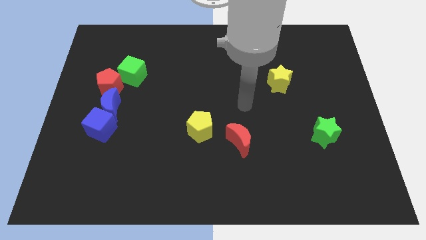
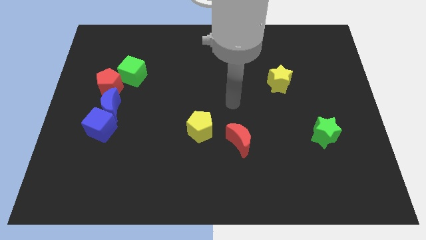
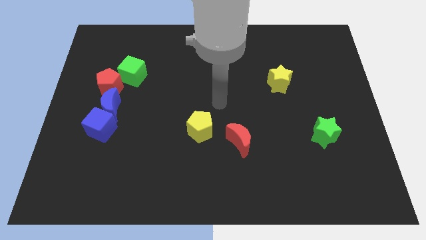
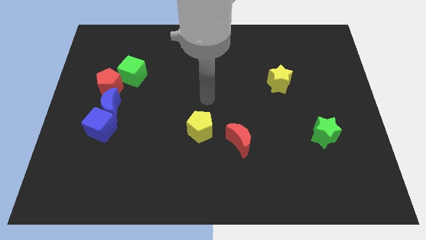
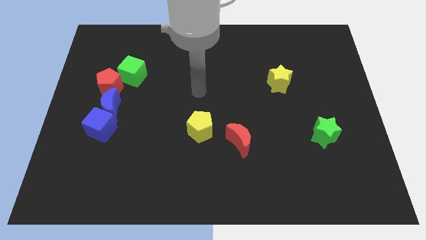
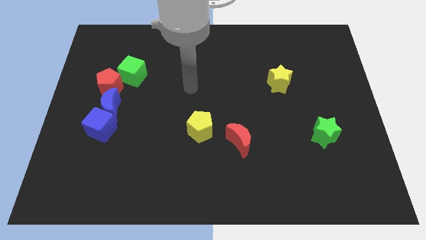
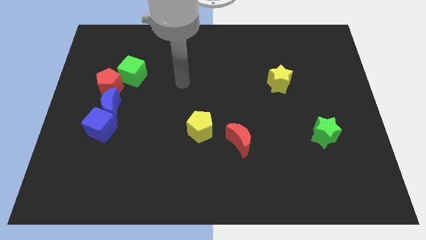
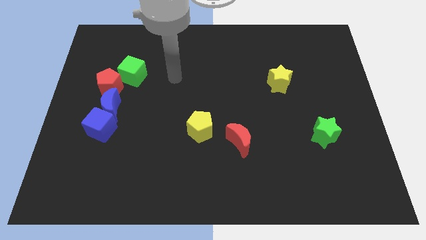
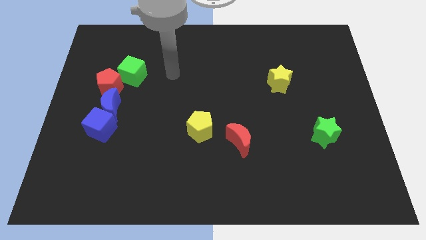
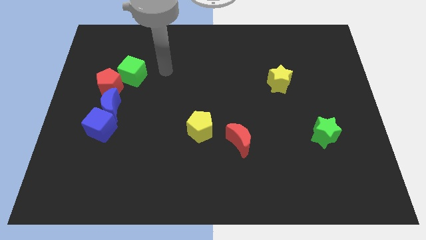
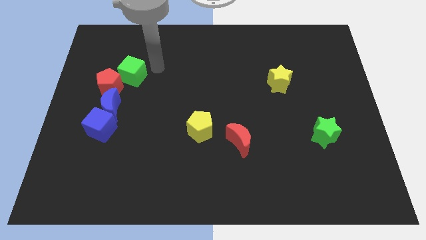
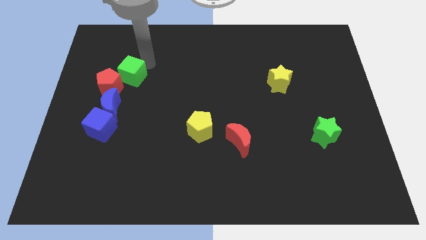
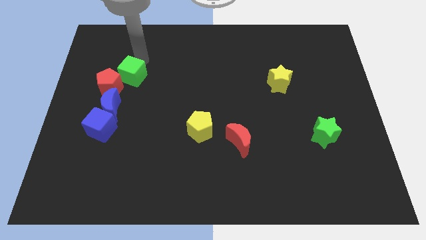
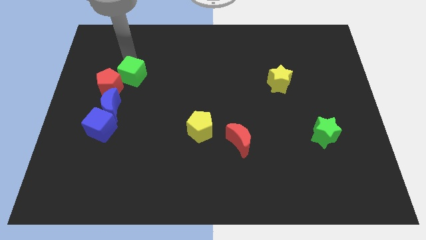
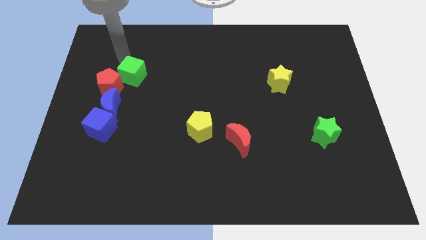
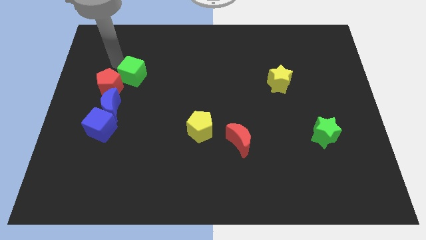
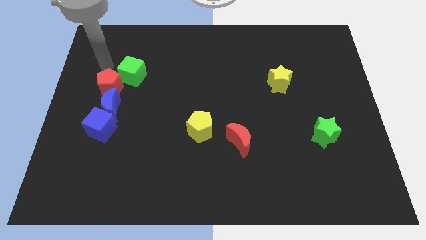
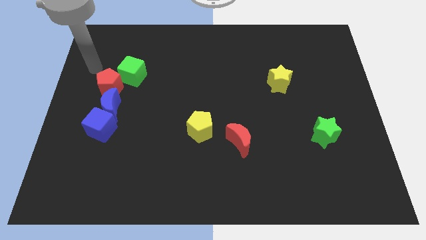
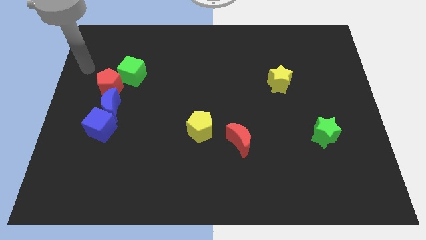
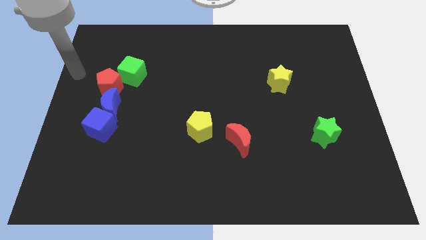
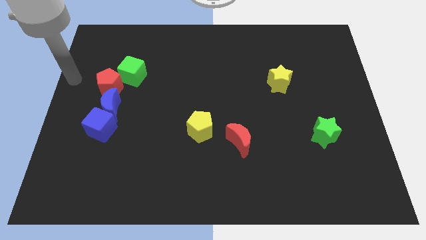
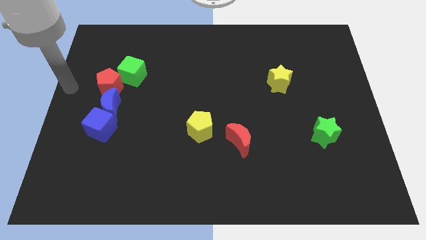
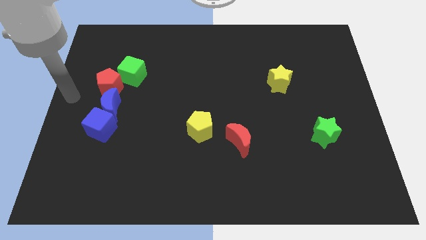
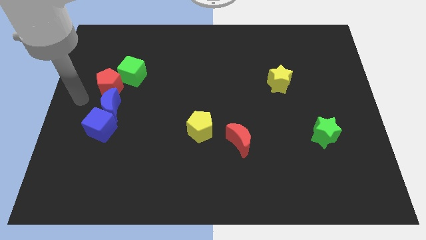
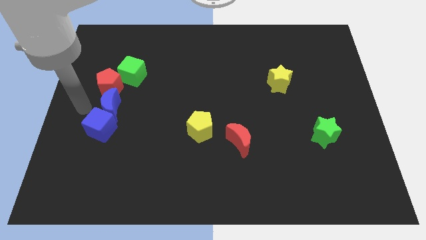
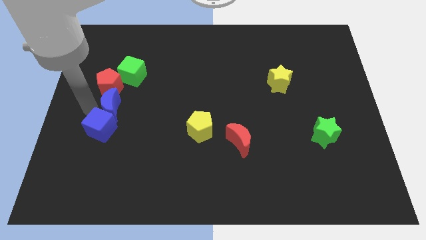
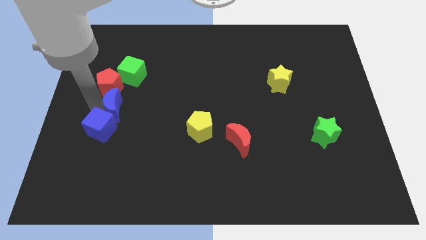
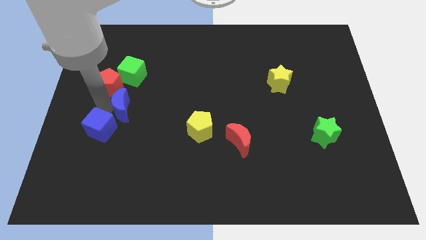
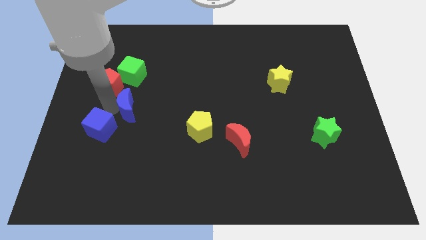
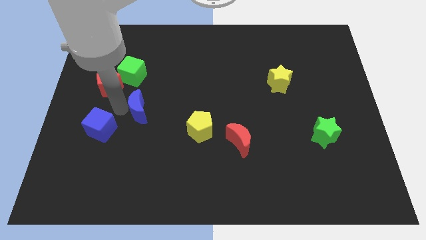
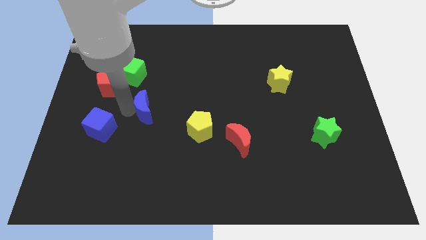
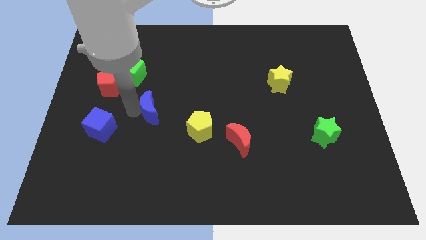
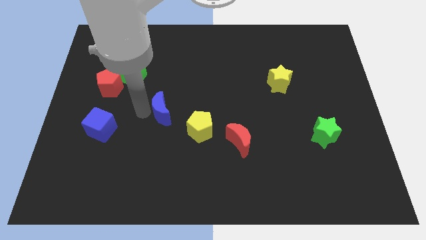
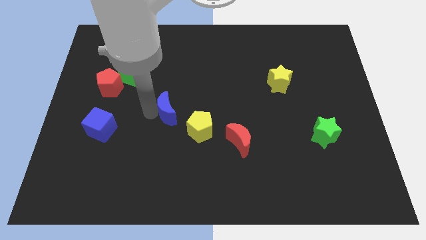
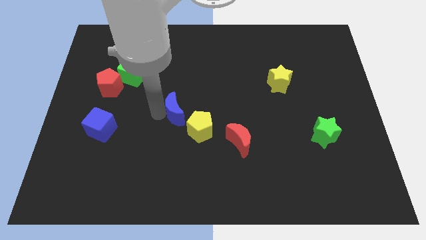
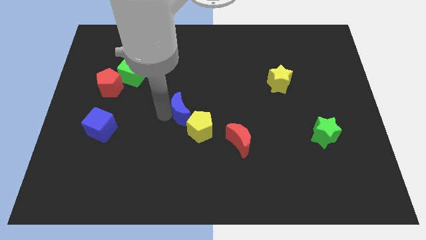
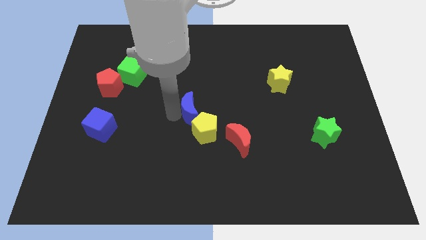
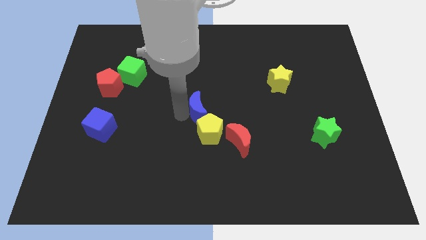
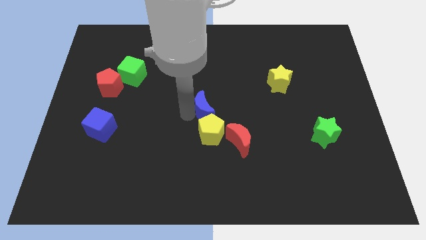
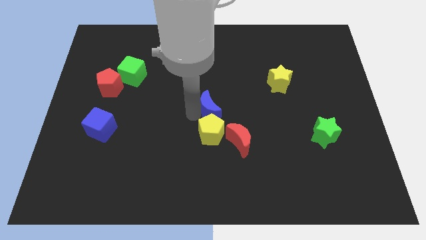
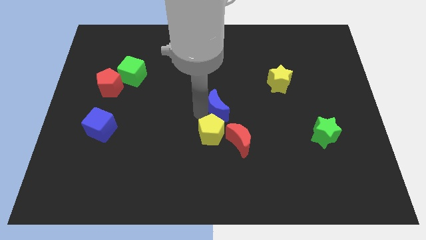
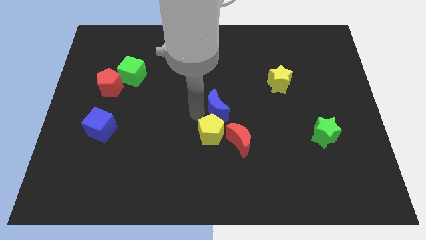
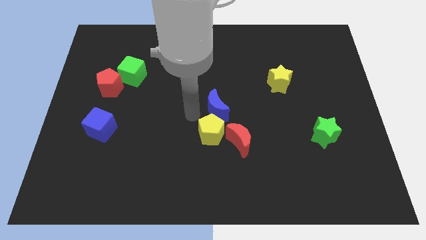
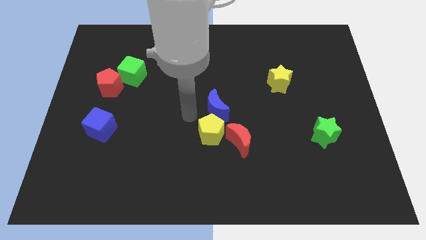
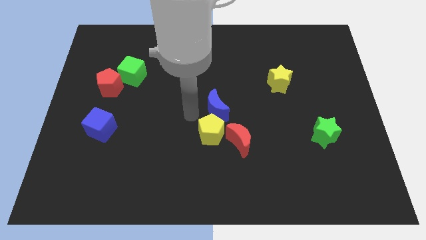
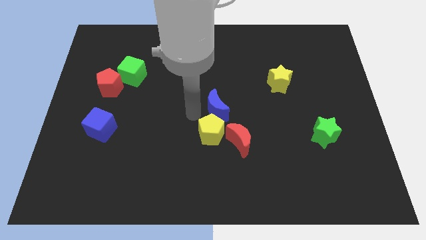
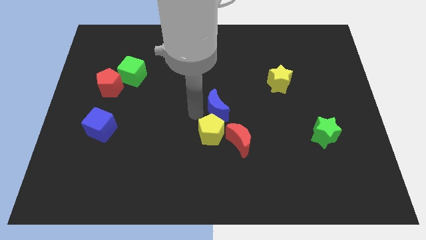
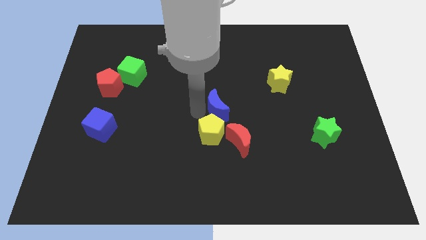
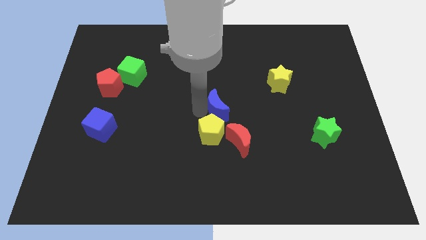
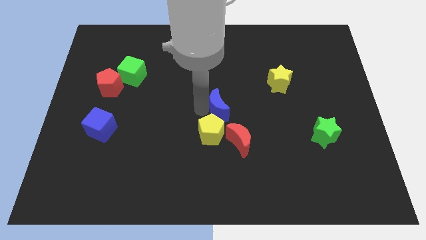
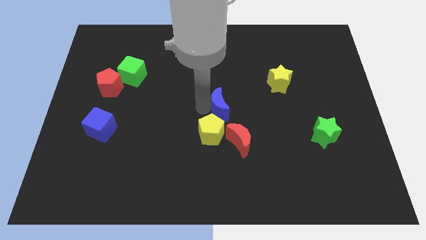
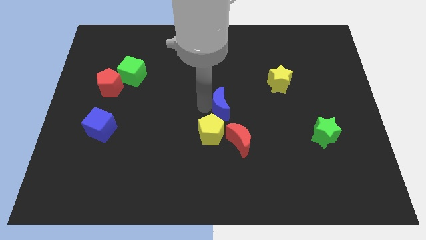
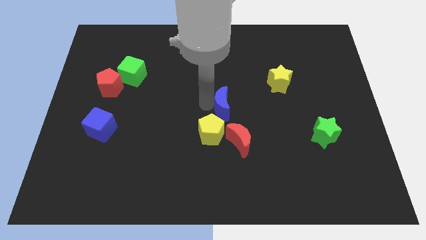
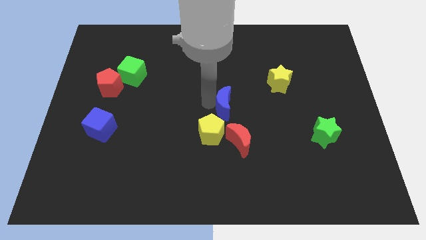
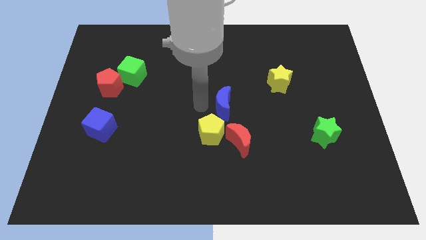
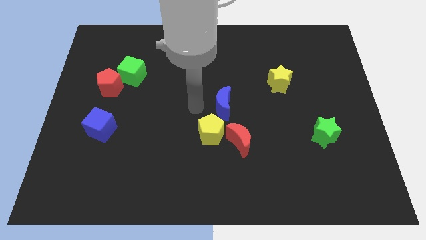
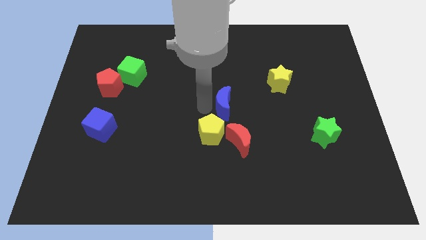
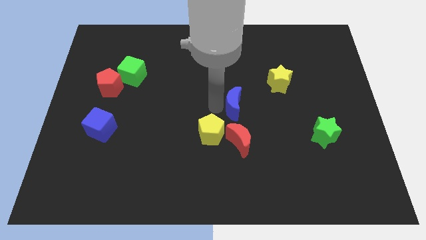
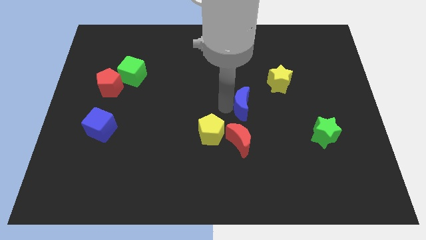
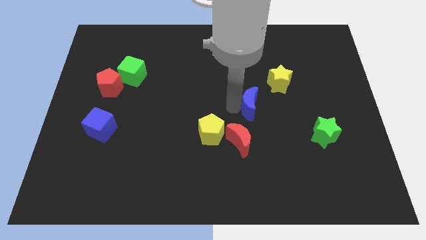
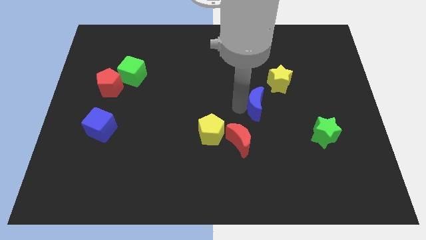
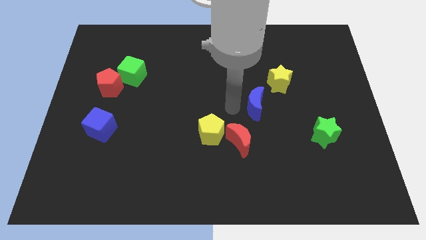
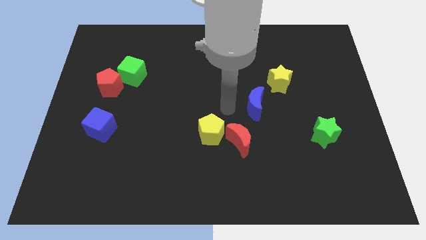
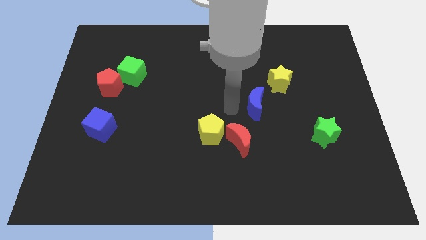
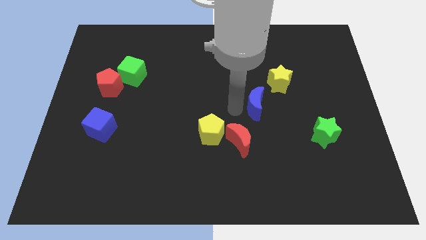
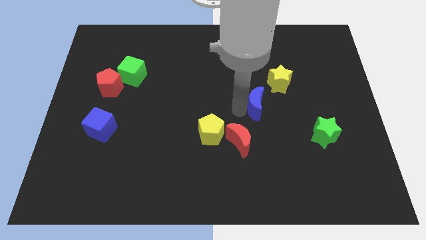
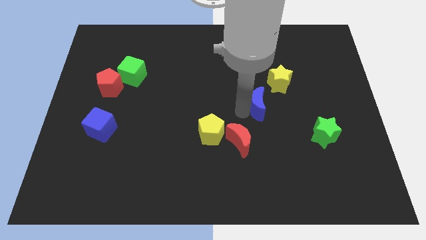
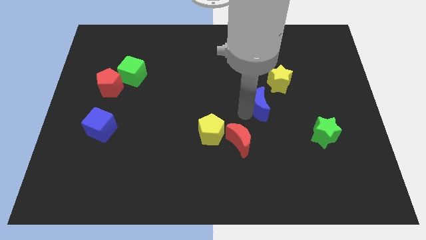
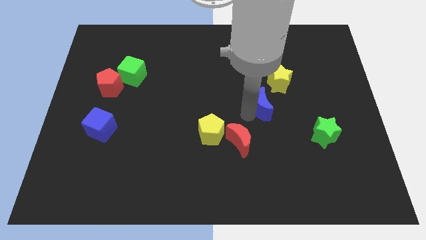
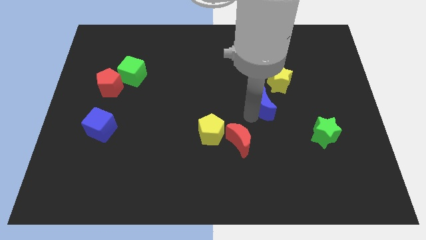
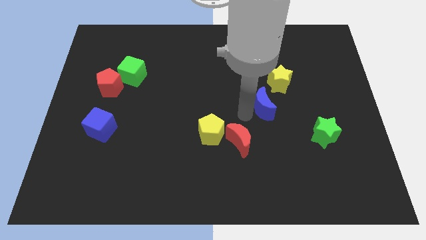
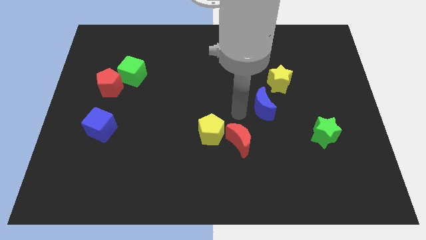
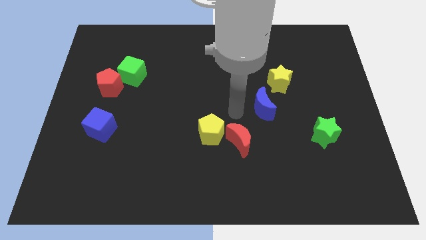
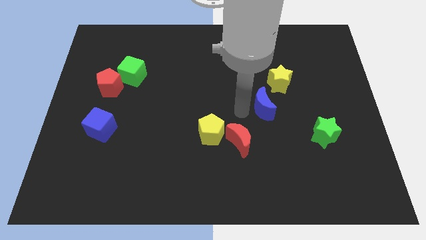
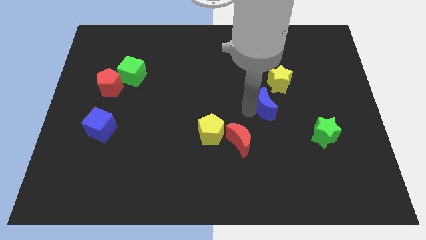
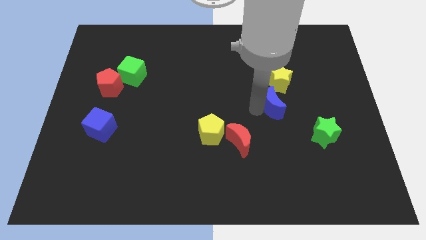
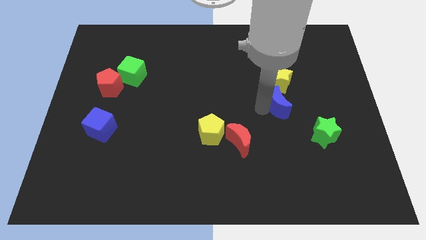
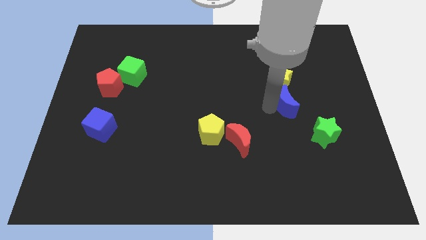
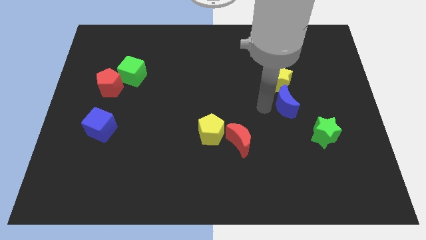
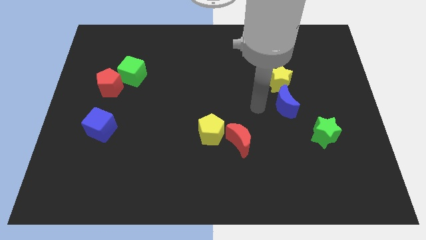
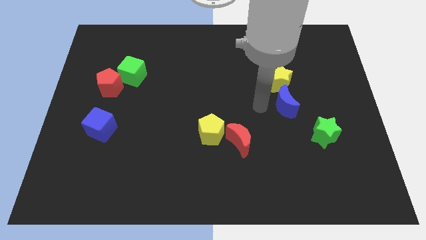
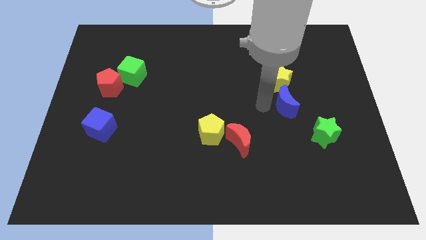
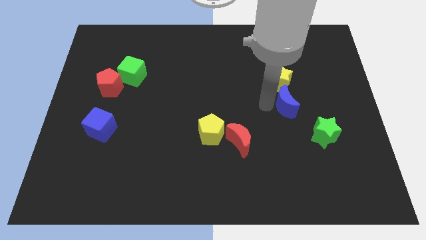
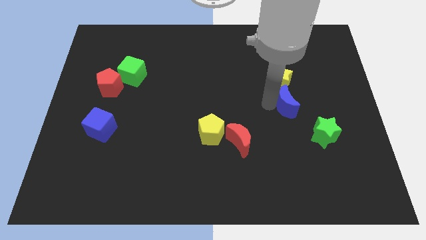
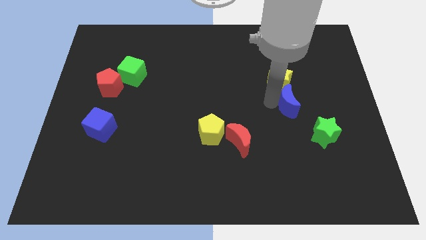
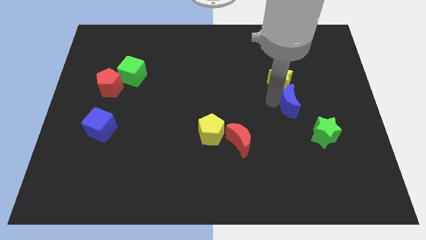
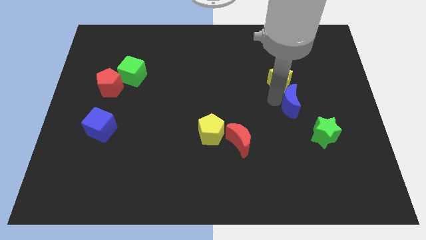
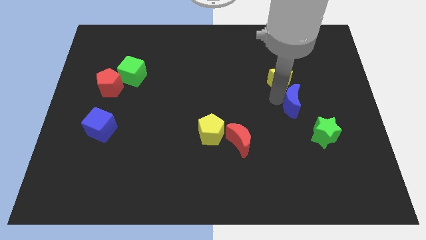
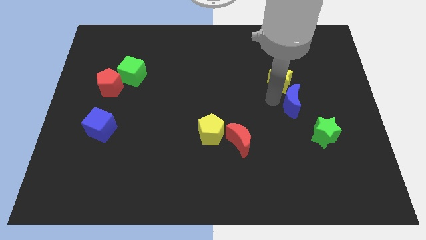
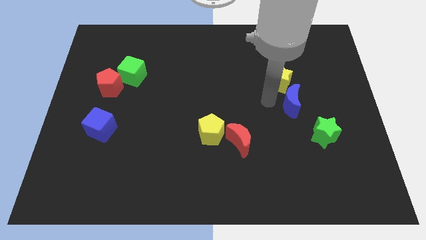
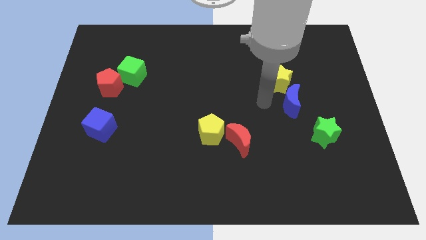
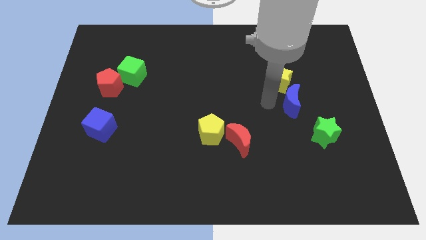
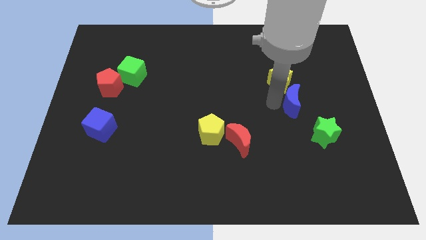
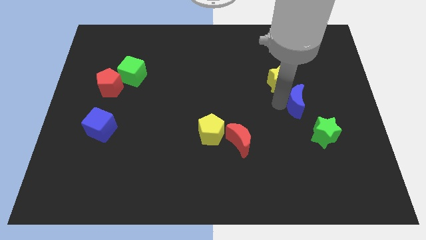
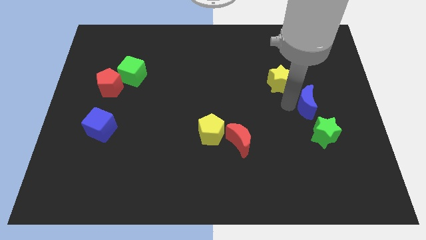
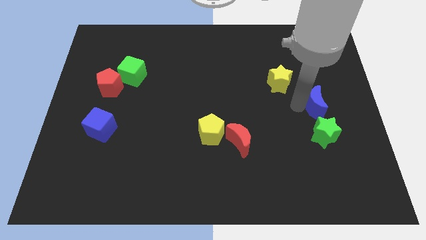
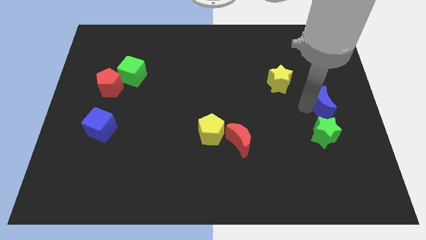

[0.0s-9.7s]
put the blue moon to the right side of the board
